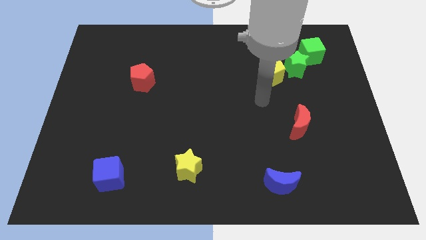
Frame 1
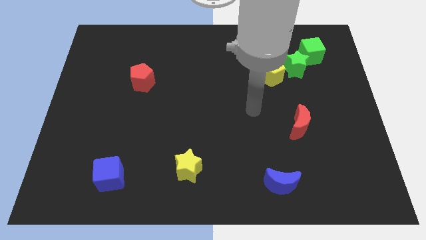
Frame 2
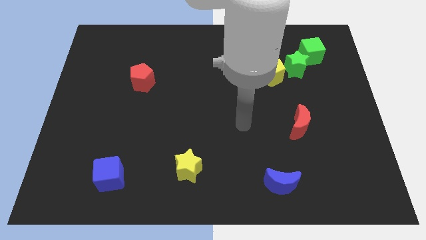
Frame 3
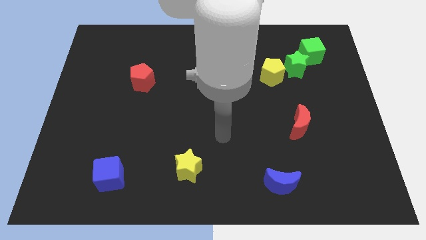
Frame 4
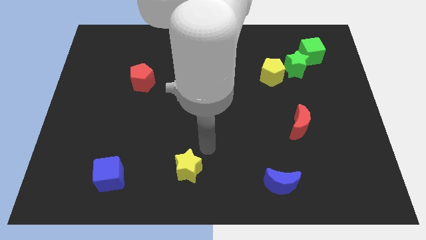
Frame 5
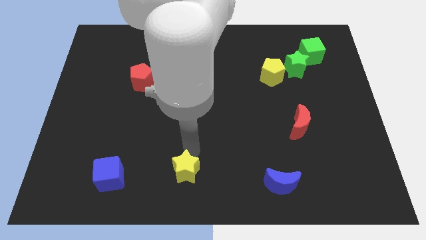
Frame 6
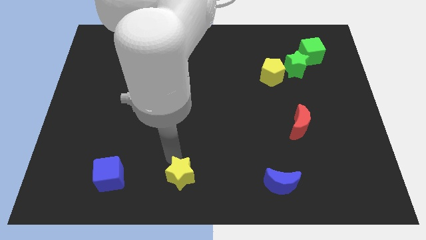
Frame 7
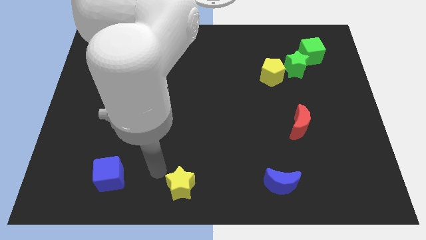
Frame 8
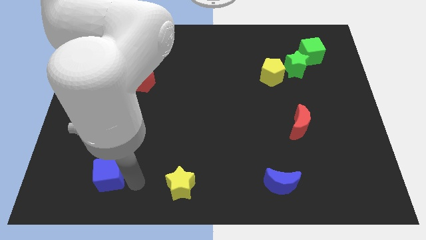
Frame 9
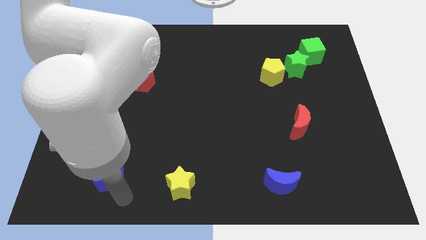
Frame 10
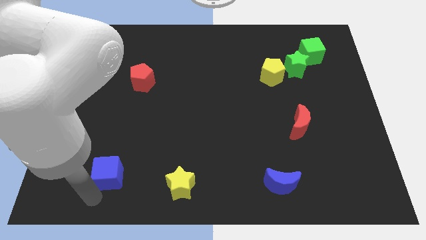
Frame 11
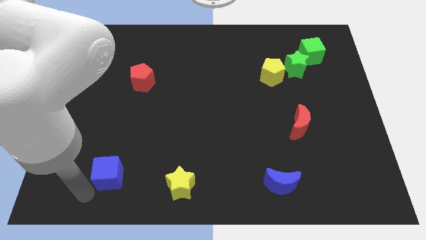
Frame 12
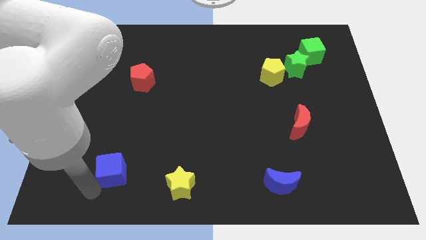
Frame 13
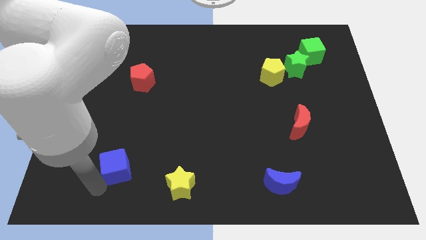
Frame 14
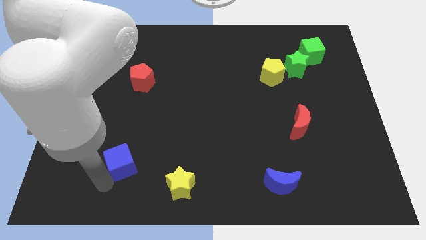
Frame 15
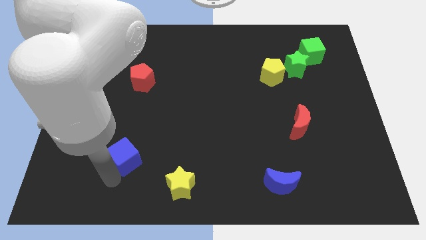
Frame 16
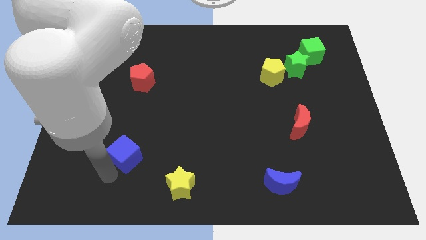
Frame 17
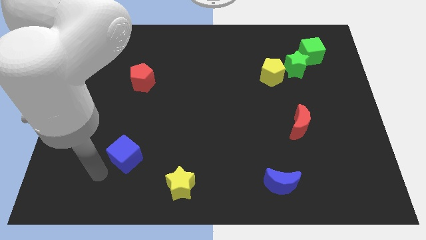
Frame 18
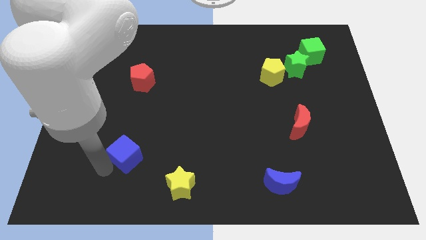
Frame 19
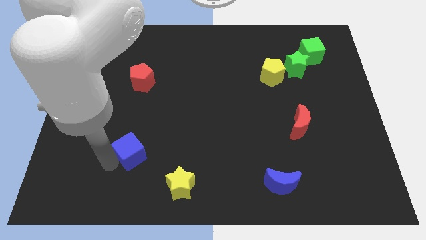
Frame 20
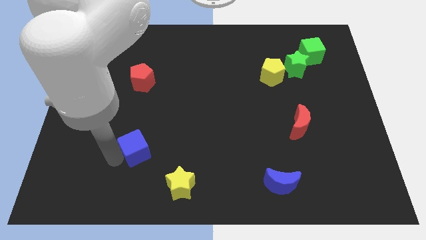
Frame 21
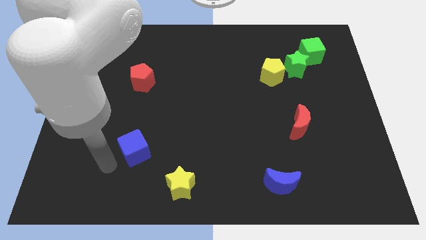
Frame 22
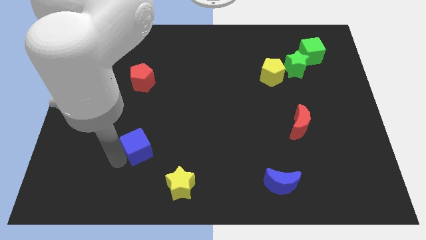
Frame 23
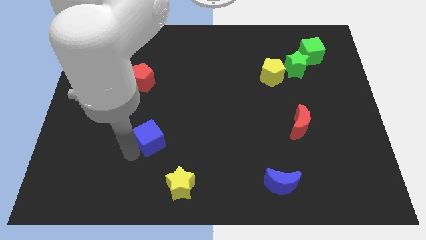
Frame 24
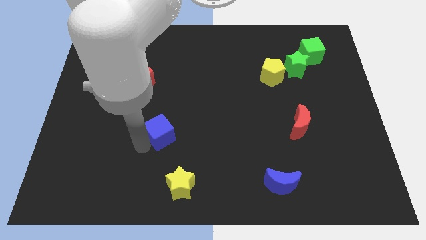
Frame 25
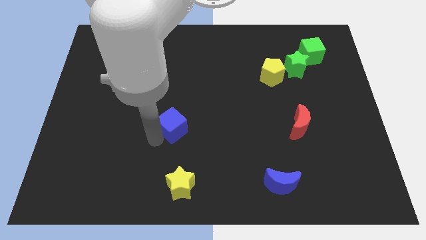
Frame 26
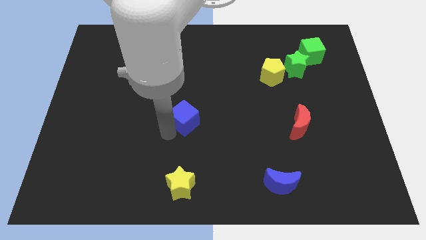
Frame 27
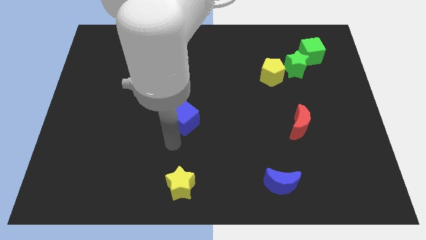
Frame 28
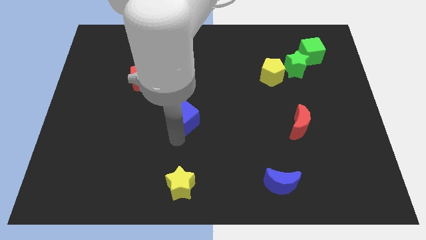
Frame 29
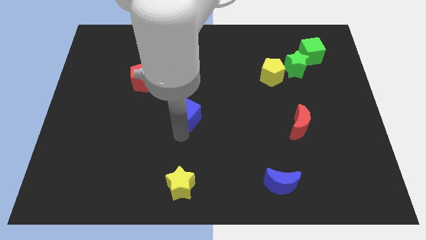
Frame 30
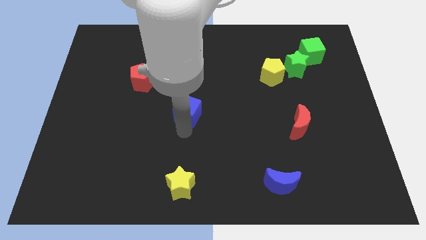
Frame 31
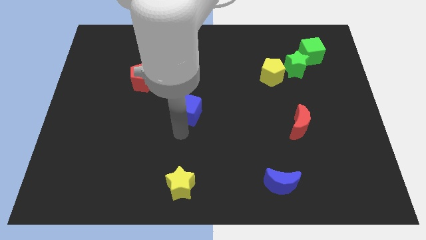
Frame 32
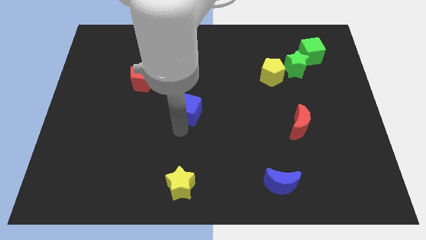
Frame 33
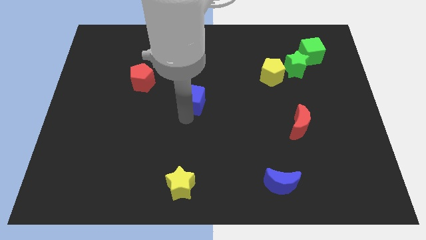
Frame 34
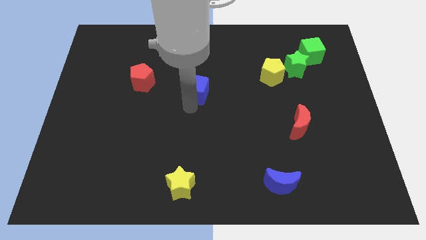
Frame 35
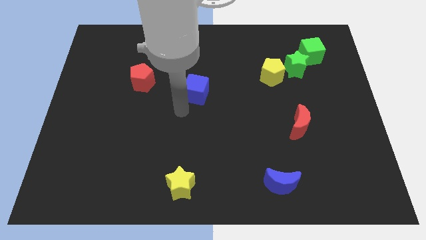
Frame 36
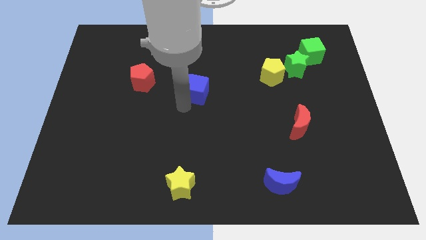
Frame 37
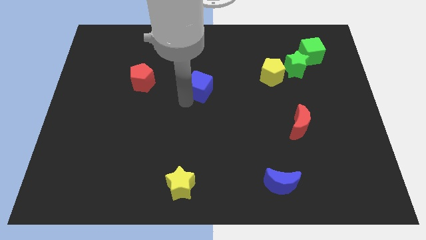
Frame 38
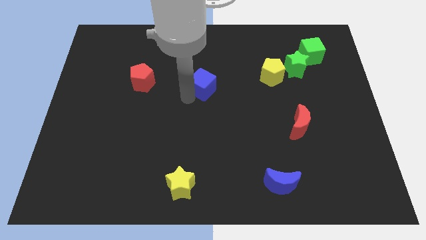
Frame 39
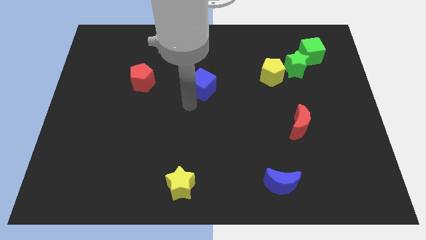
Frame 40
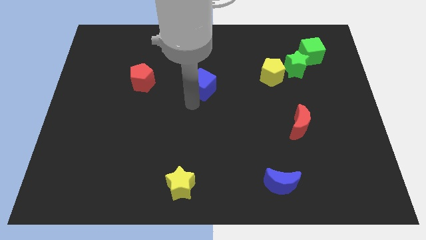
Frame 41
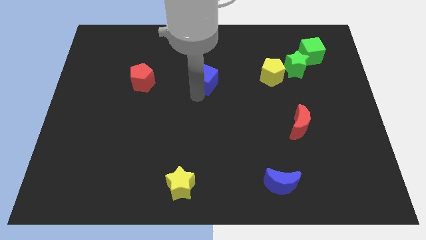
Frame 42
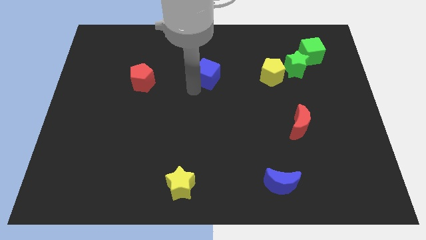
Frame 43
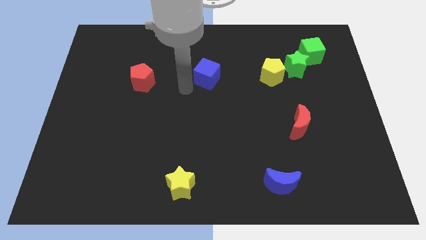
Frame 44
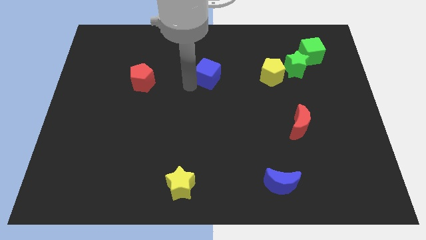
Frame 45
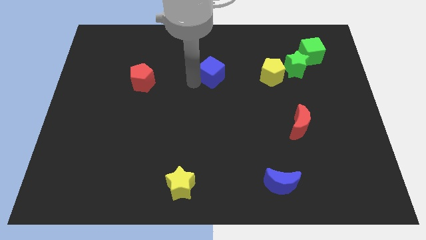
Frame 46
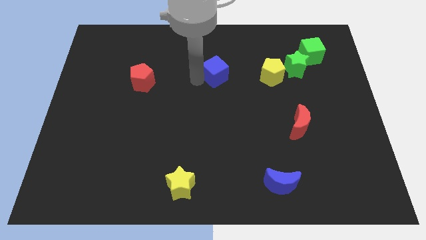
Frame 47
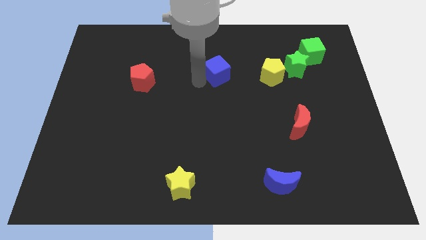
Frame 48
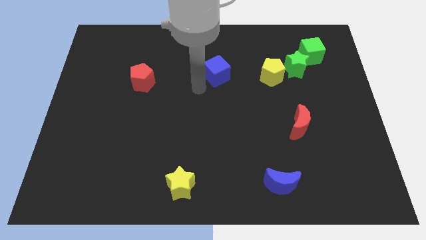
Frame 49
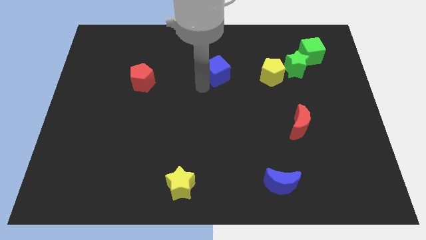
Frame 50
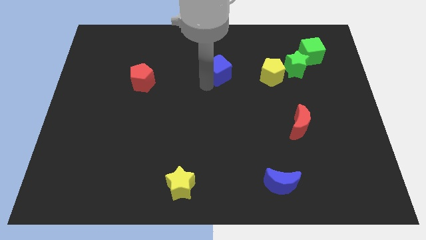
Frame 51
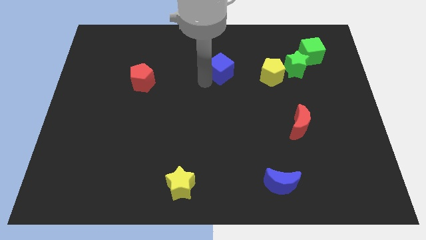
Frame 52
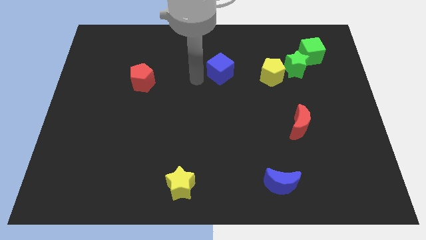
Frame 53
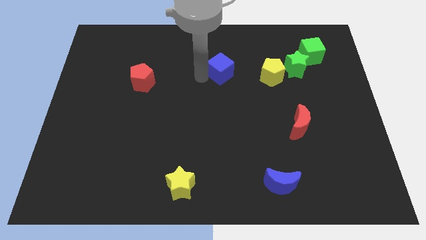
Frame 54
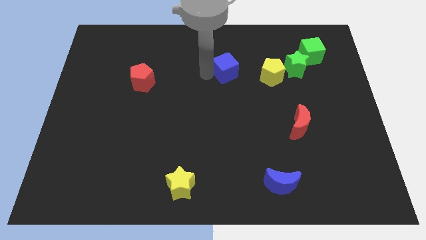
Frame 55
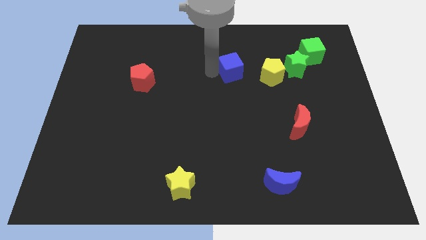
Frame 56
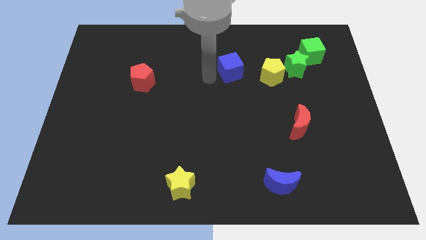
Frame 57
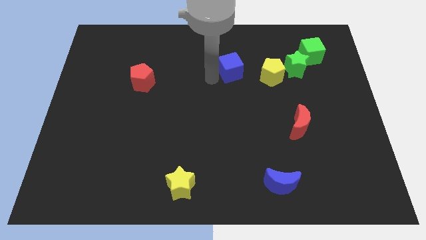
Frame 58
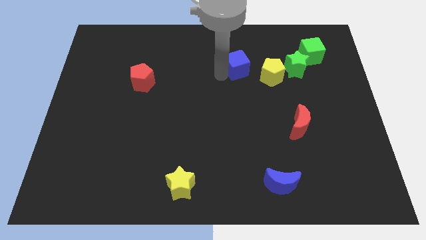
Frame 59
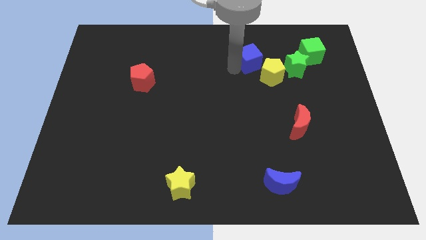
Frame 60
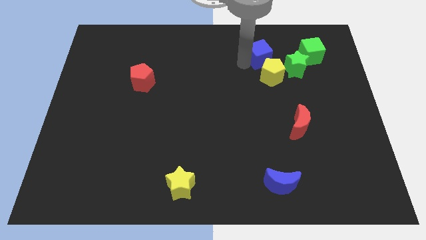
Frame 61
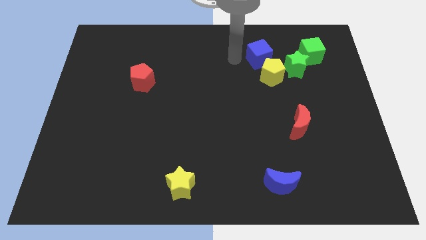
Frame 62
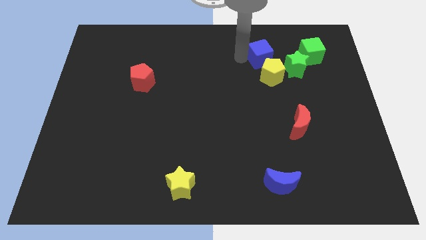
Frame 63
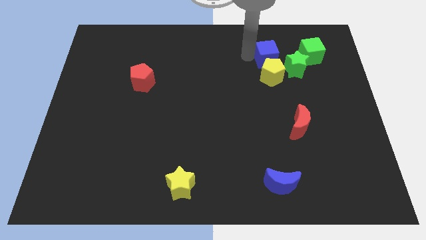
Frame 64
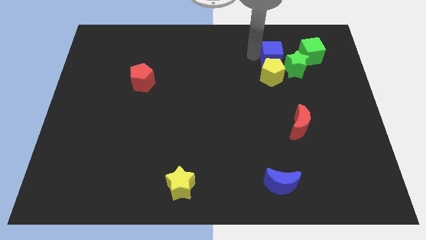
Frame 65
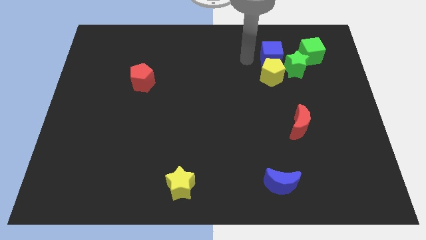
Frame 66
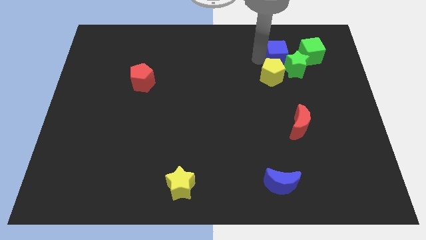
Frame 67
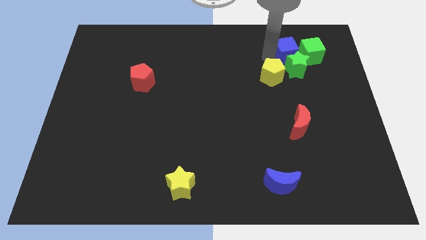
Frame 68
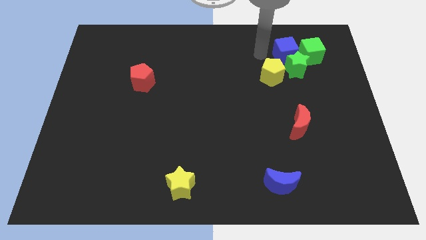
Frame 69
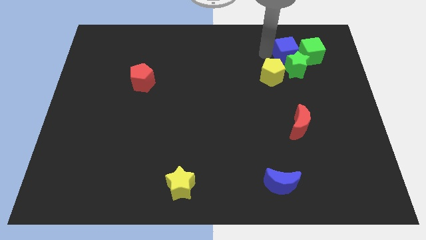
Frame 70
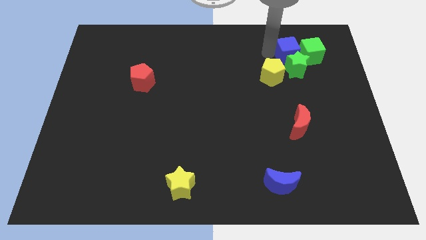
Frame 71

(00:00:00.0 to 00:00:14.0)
push the blue cube towards the green cube

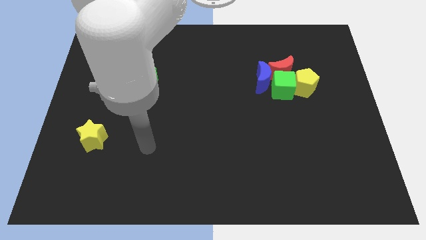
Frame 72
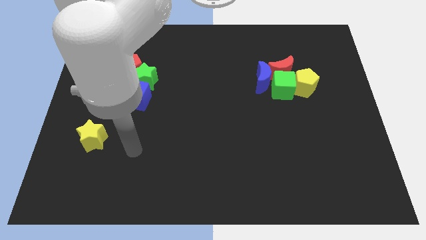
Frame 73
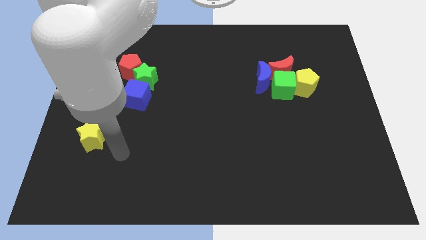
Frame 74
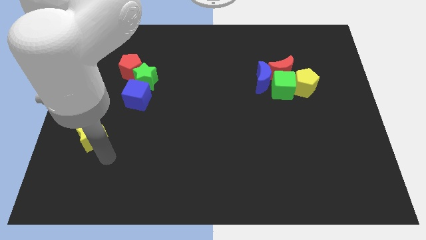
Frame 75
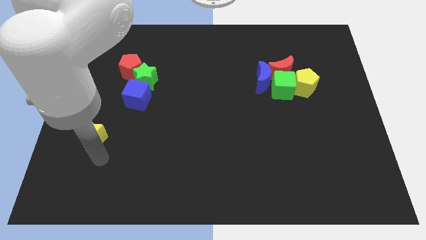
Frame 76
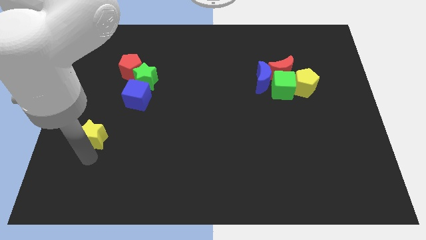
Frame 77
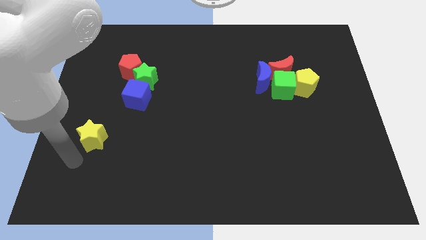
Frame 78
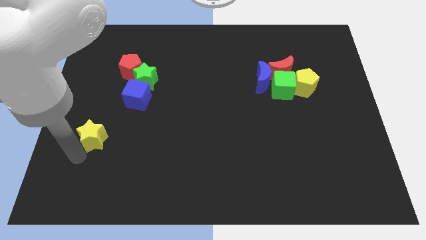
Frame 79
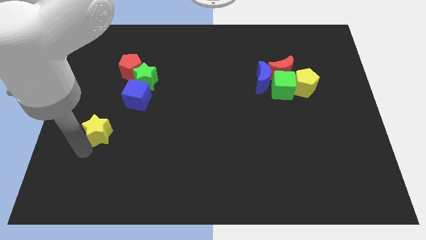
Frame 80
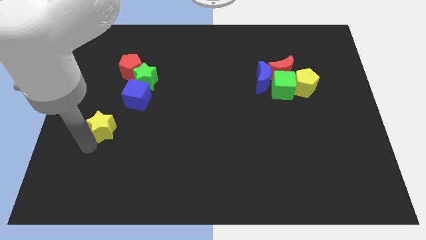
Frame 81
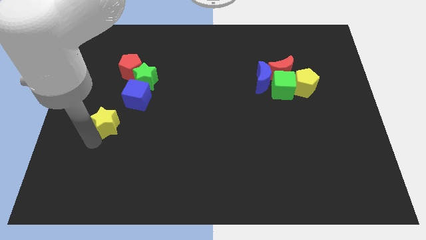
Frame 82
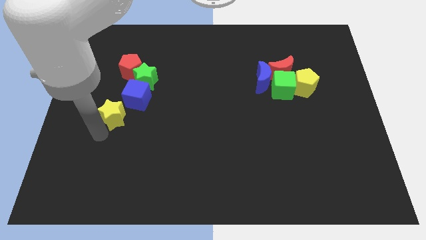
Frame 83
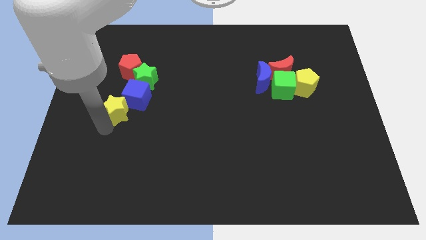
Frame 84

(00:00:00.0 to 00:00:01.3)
push the yellow star to the blue cube
